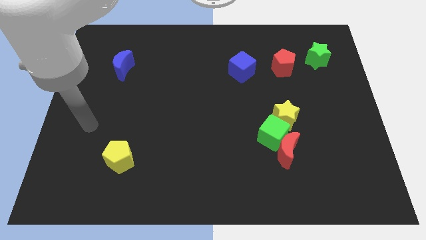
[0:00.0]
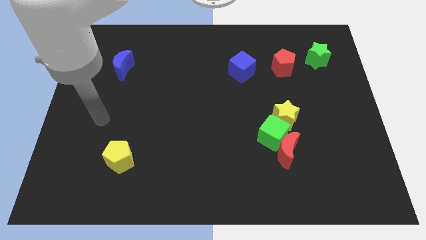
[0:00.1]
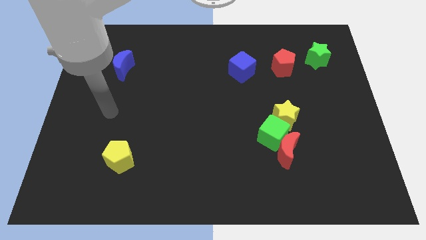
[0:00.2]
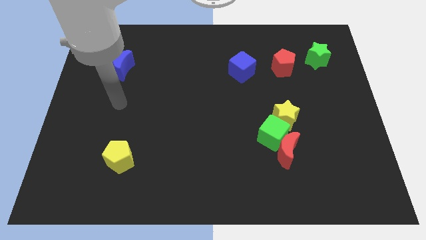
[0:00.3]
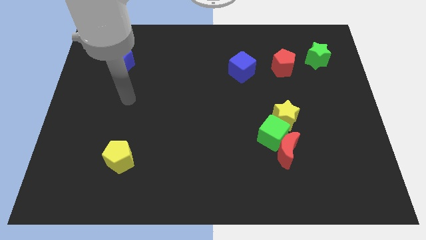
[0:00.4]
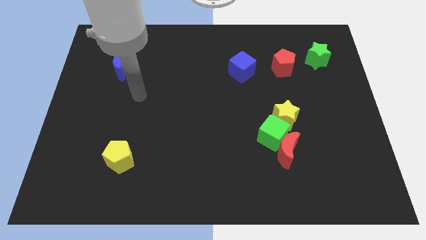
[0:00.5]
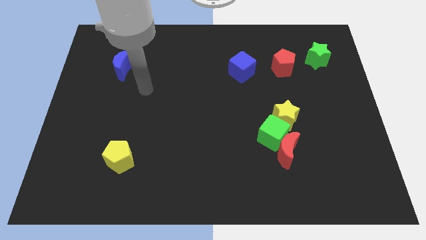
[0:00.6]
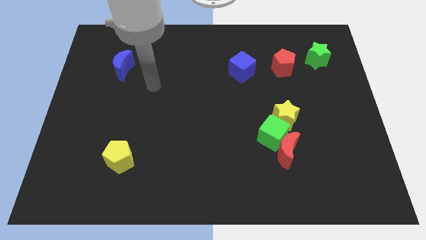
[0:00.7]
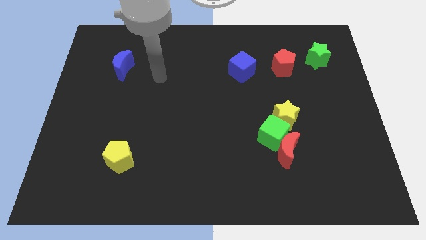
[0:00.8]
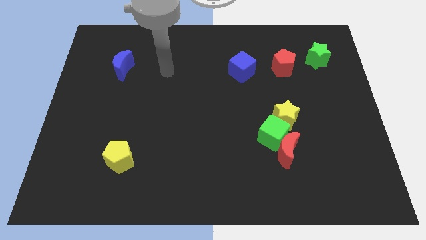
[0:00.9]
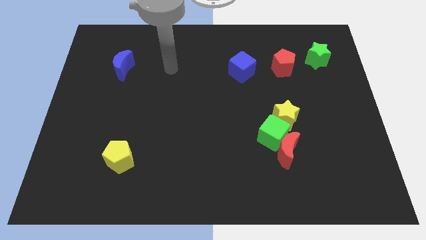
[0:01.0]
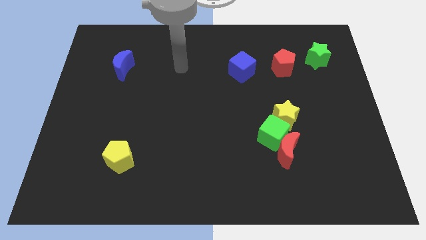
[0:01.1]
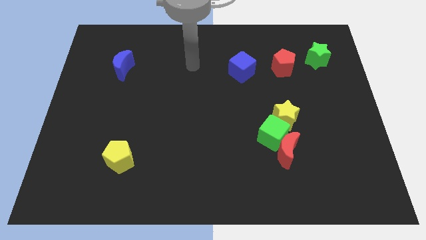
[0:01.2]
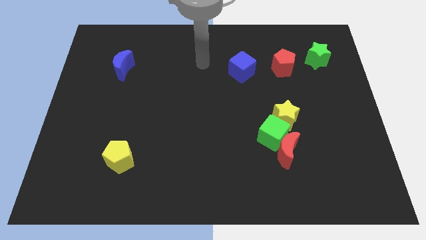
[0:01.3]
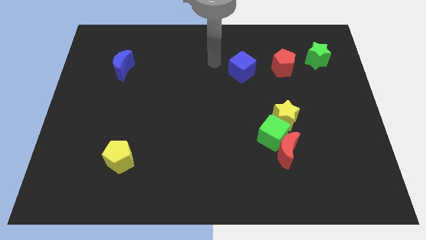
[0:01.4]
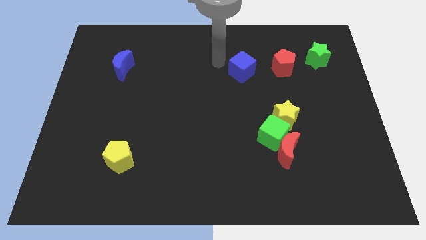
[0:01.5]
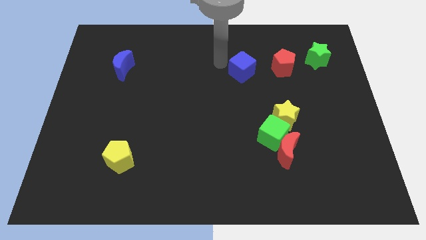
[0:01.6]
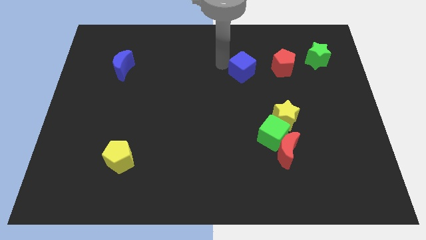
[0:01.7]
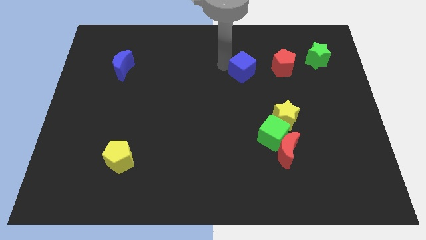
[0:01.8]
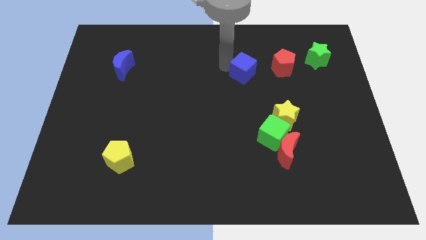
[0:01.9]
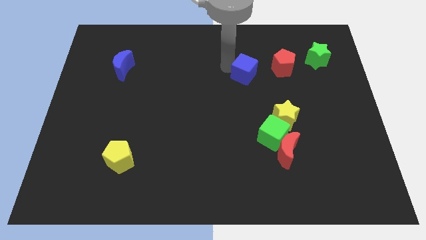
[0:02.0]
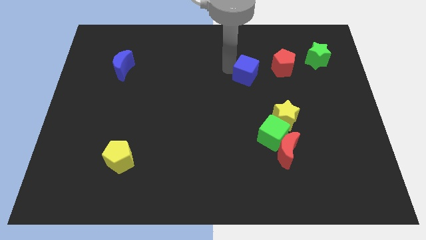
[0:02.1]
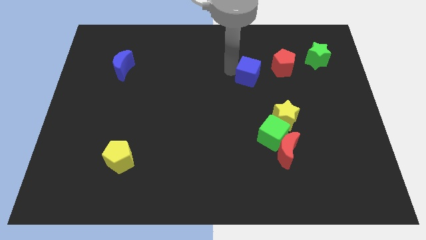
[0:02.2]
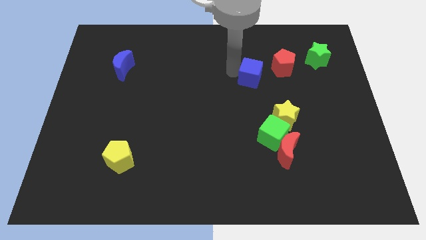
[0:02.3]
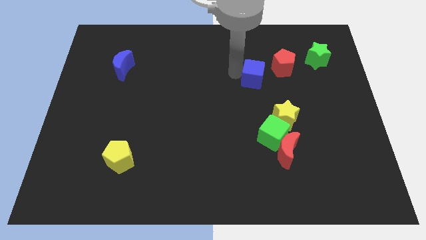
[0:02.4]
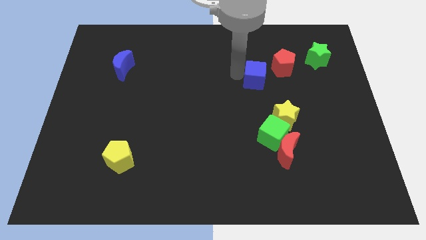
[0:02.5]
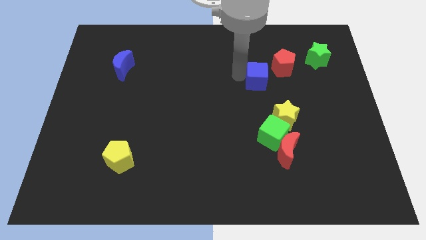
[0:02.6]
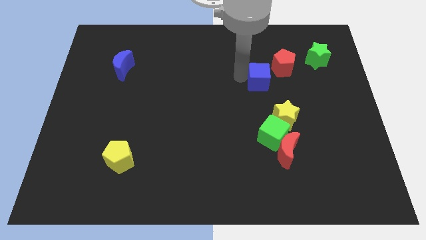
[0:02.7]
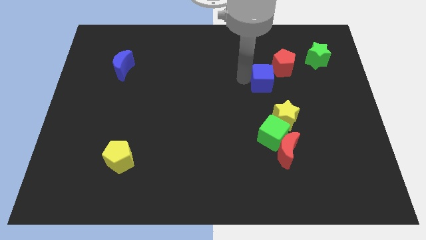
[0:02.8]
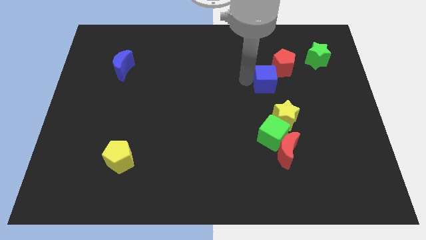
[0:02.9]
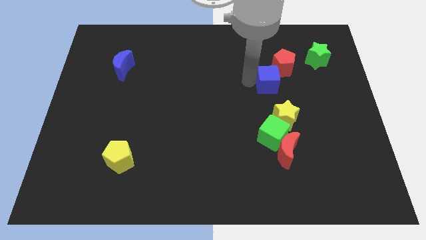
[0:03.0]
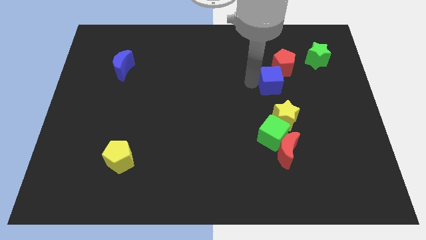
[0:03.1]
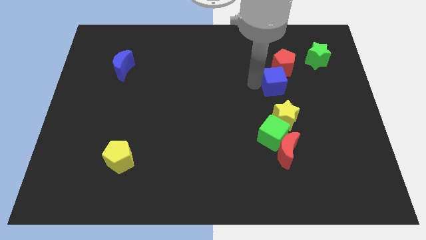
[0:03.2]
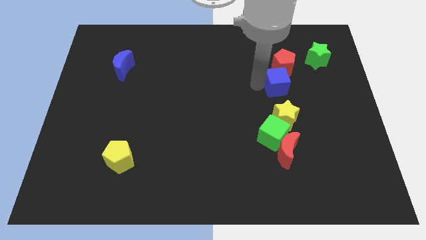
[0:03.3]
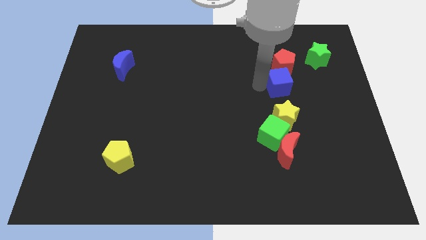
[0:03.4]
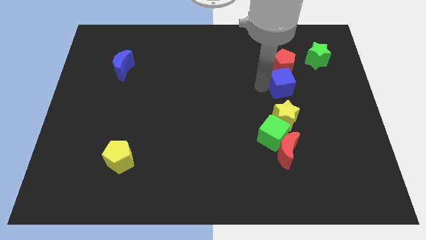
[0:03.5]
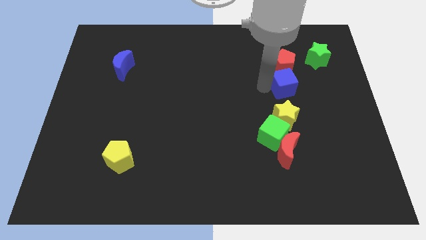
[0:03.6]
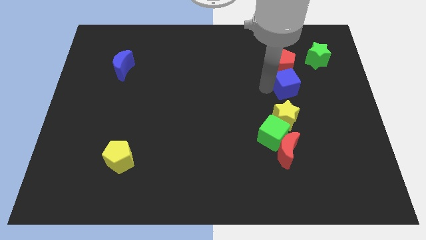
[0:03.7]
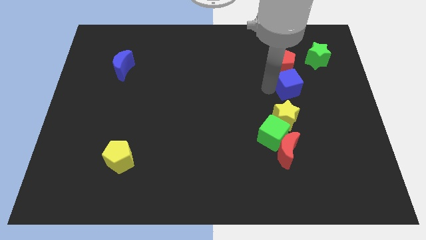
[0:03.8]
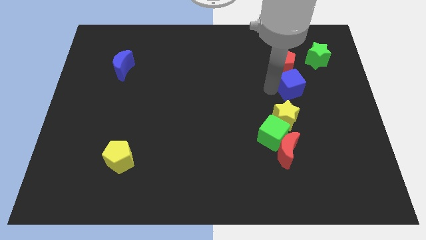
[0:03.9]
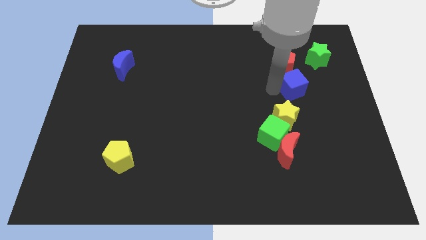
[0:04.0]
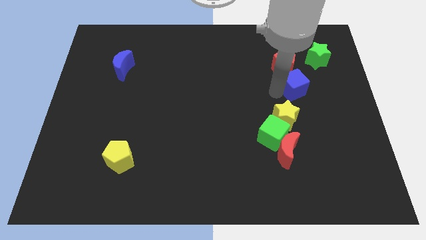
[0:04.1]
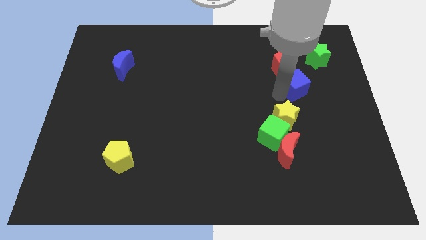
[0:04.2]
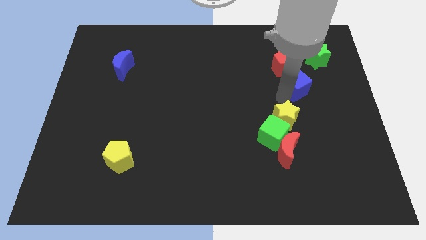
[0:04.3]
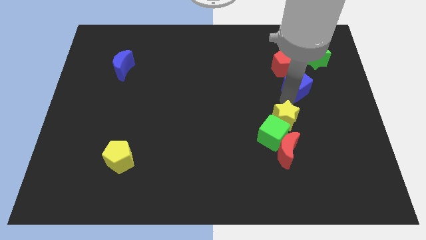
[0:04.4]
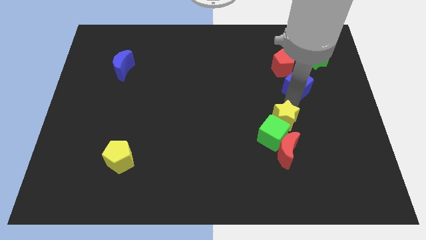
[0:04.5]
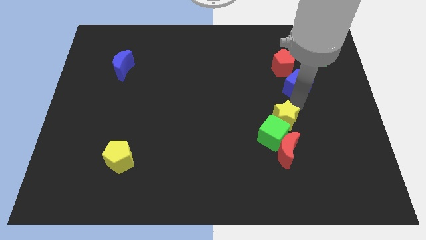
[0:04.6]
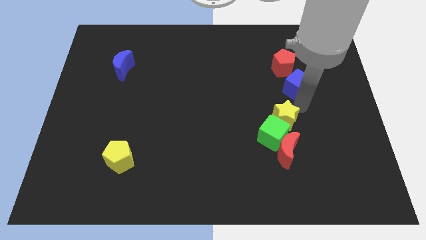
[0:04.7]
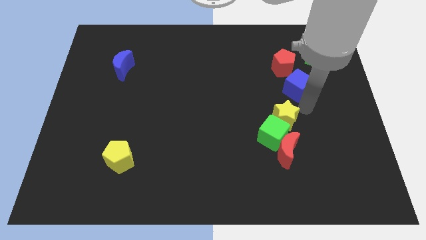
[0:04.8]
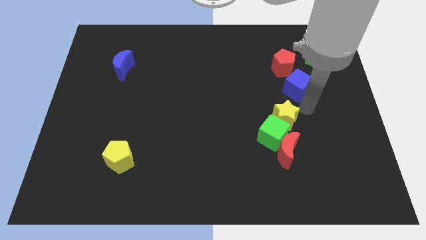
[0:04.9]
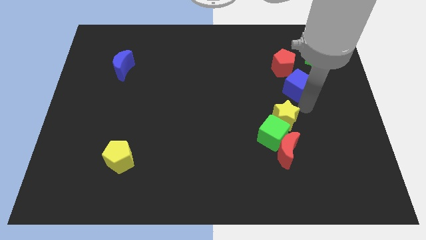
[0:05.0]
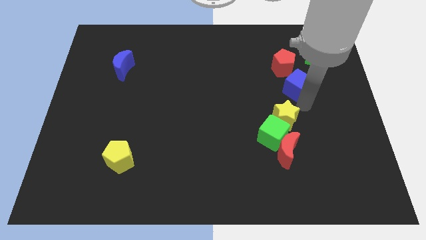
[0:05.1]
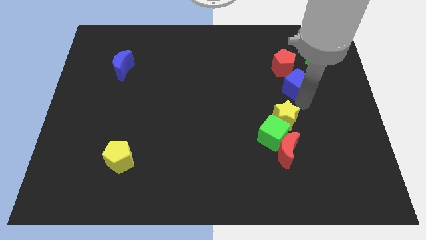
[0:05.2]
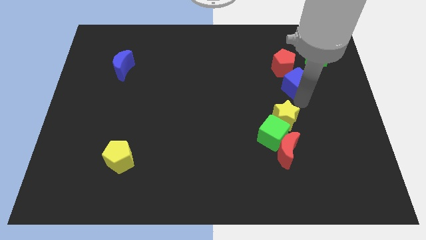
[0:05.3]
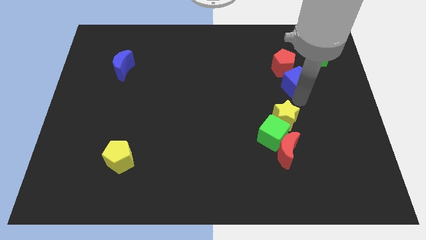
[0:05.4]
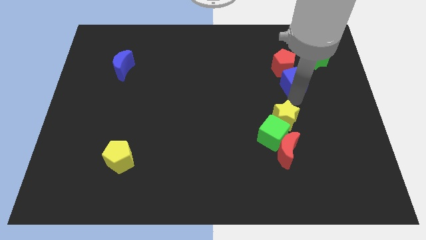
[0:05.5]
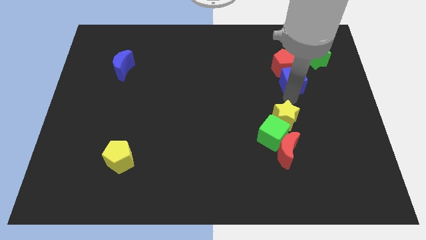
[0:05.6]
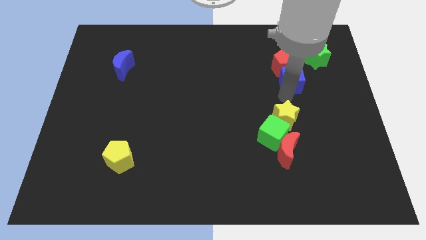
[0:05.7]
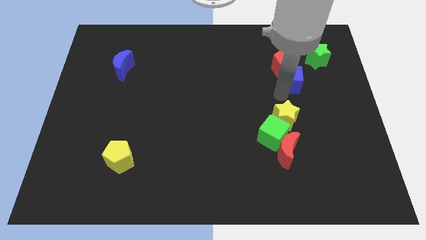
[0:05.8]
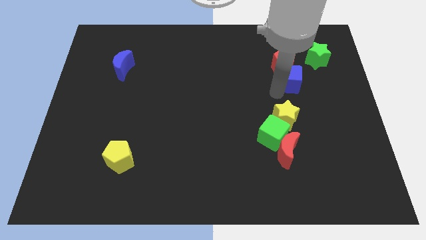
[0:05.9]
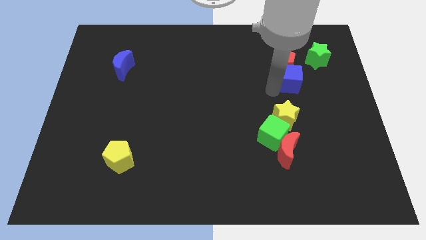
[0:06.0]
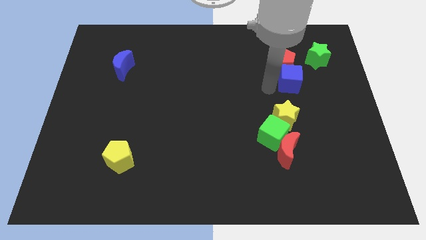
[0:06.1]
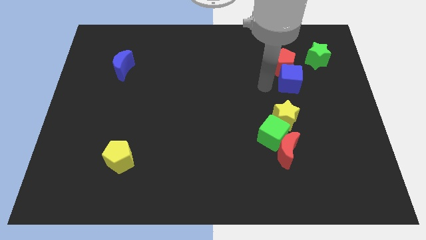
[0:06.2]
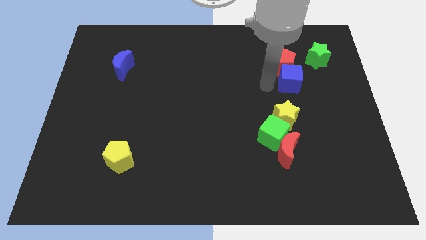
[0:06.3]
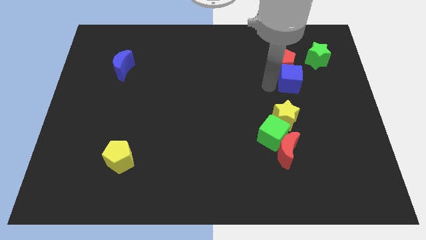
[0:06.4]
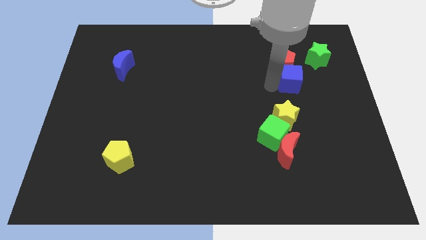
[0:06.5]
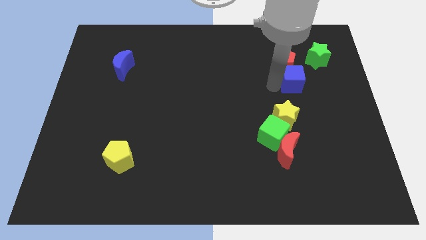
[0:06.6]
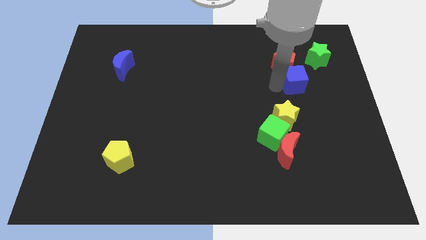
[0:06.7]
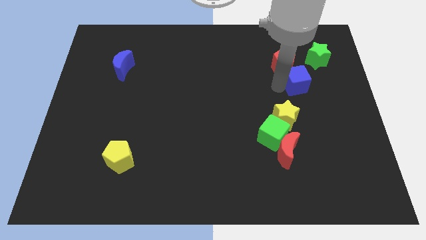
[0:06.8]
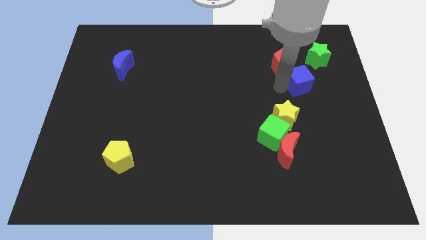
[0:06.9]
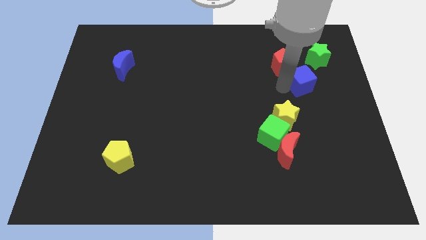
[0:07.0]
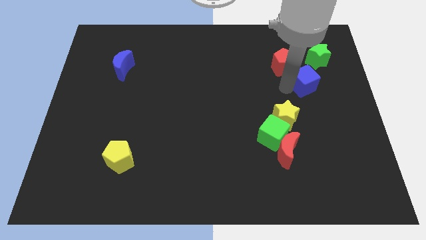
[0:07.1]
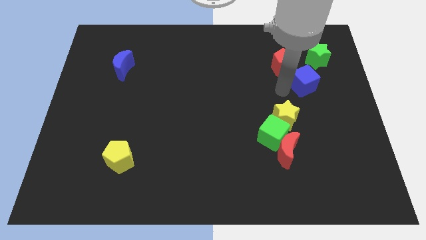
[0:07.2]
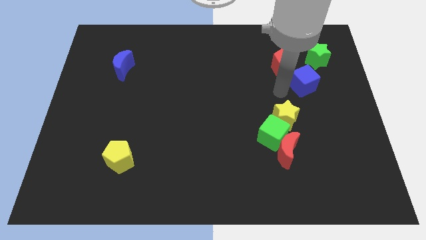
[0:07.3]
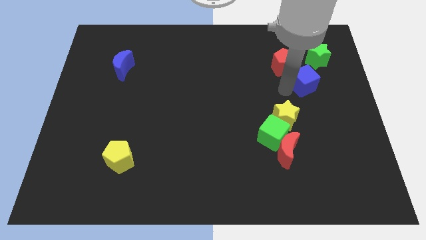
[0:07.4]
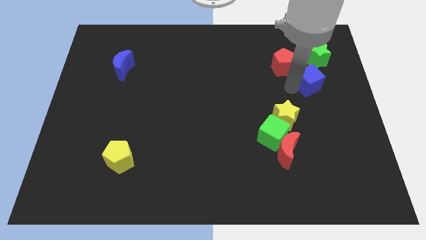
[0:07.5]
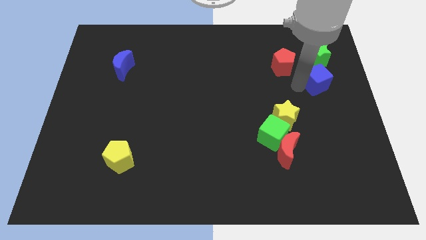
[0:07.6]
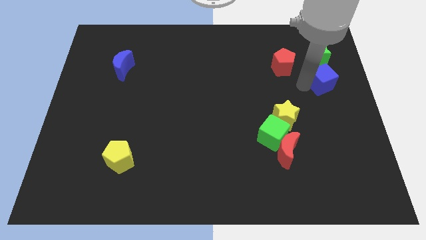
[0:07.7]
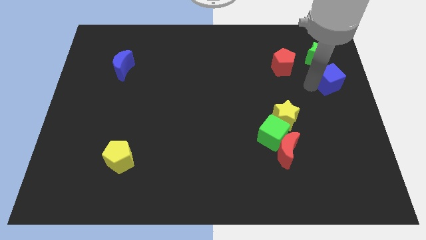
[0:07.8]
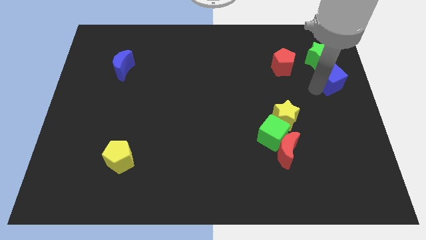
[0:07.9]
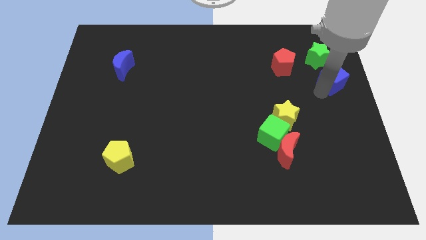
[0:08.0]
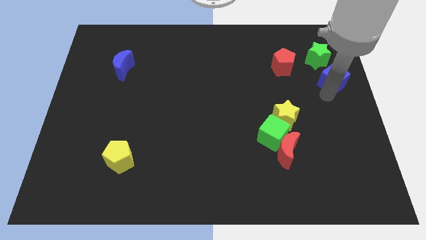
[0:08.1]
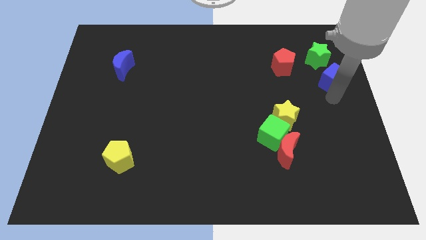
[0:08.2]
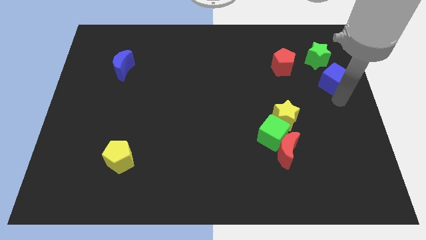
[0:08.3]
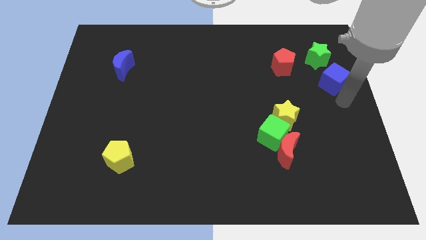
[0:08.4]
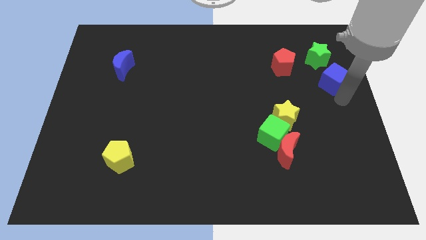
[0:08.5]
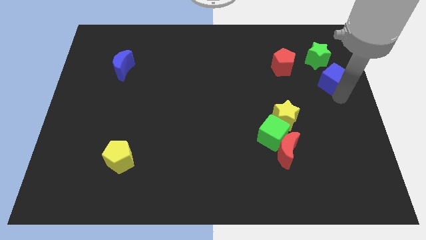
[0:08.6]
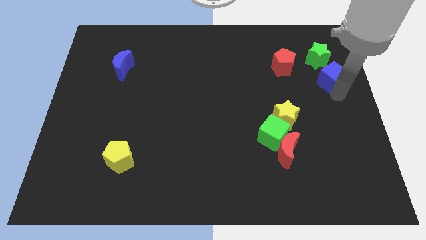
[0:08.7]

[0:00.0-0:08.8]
slide the blue cube just right of the red pentagon
